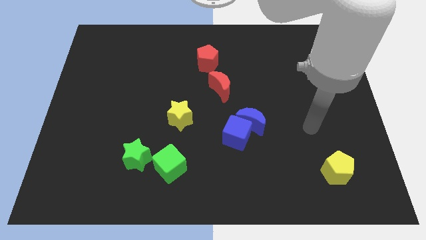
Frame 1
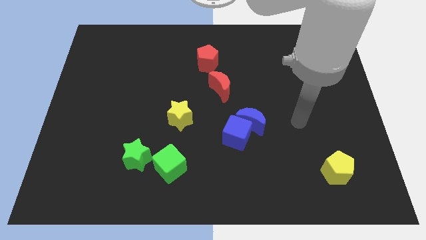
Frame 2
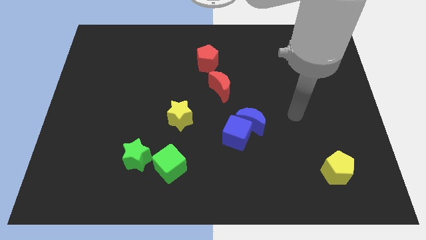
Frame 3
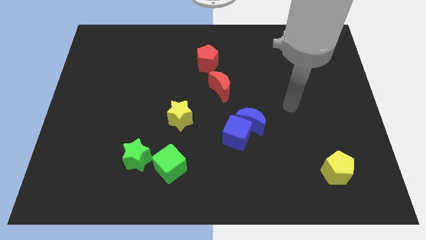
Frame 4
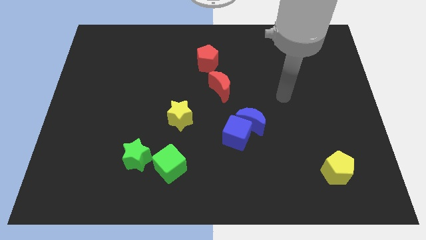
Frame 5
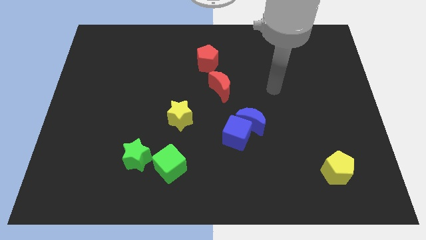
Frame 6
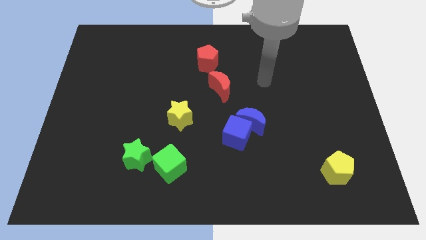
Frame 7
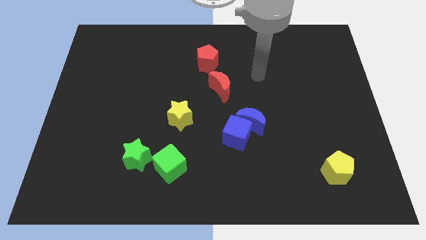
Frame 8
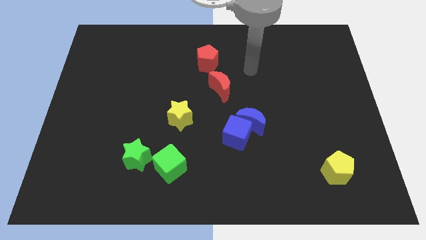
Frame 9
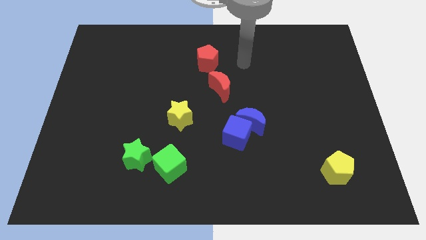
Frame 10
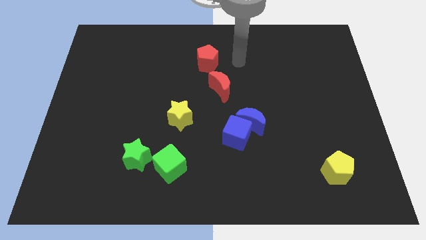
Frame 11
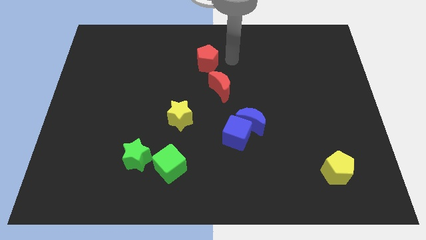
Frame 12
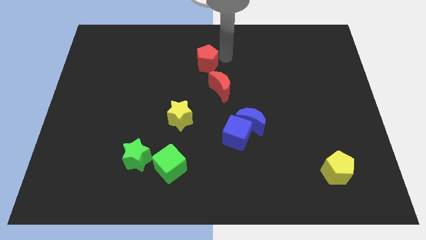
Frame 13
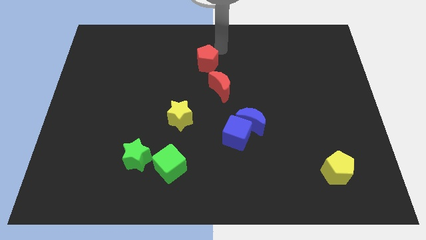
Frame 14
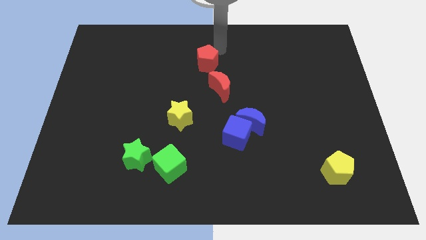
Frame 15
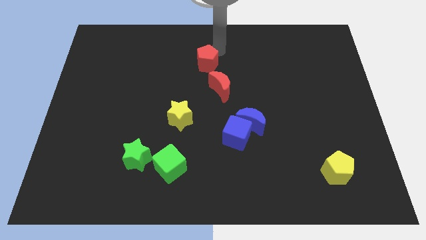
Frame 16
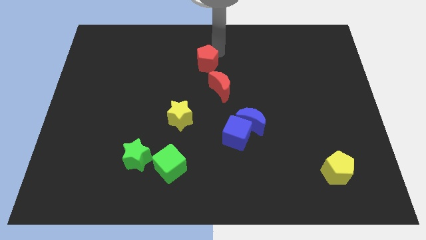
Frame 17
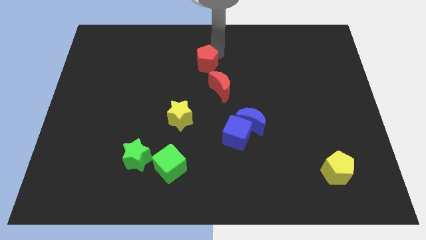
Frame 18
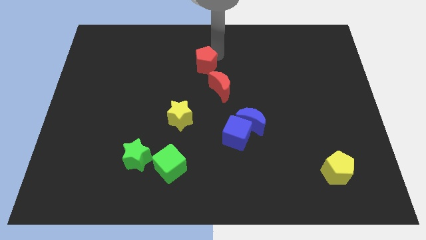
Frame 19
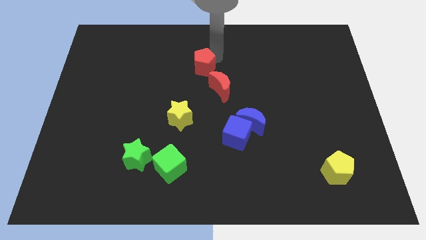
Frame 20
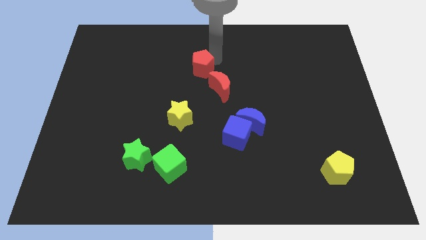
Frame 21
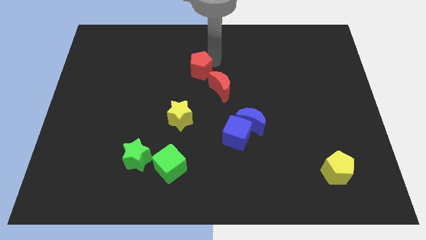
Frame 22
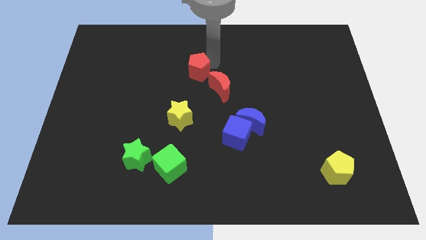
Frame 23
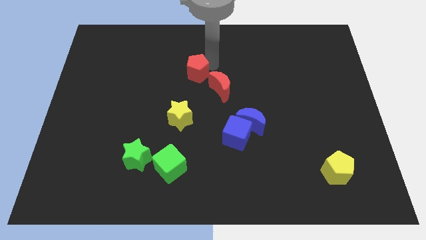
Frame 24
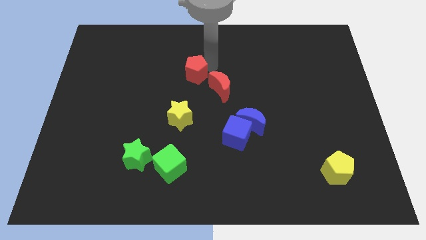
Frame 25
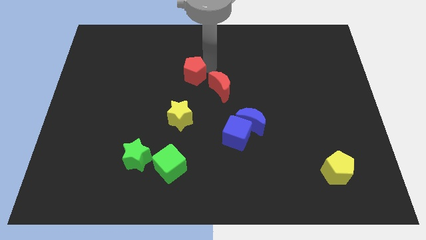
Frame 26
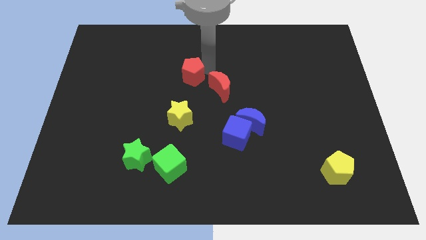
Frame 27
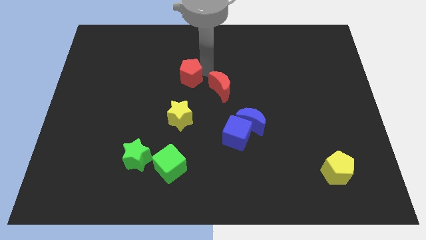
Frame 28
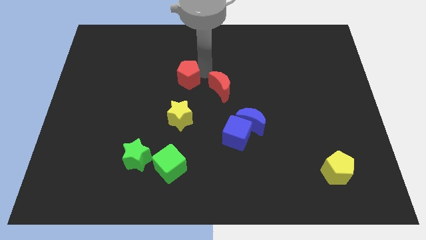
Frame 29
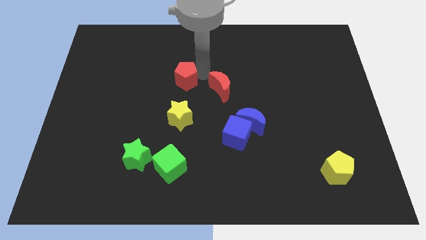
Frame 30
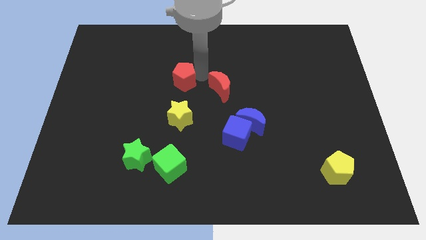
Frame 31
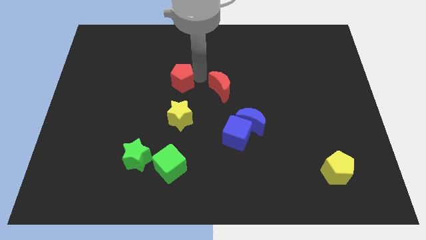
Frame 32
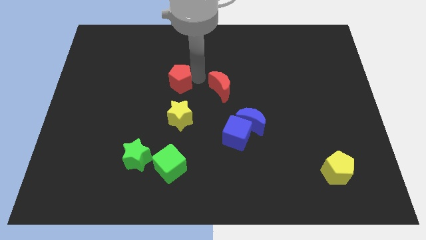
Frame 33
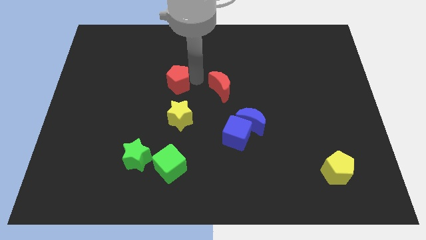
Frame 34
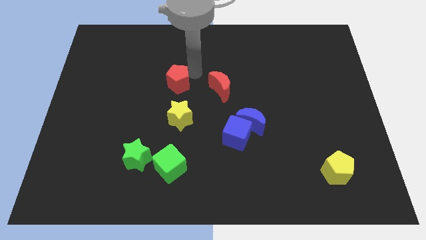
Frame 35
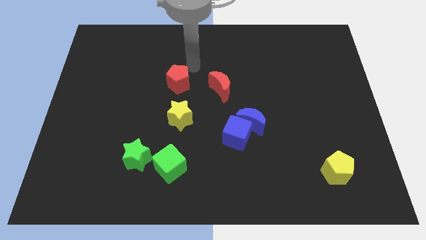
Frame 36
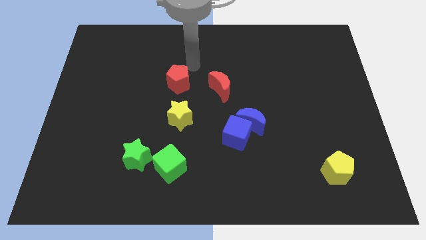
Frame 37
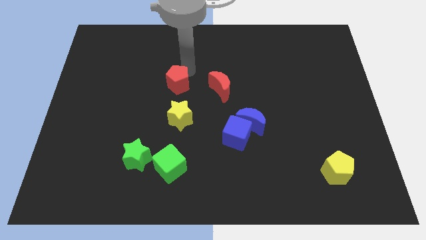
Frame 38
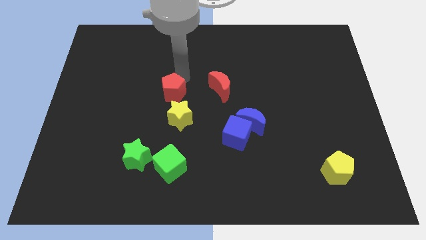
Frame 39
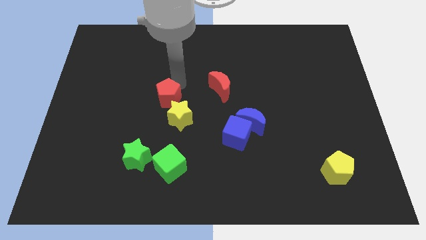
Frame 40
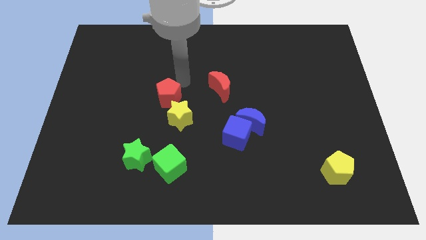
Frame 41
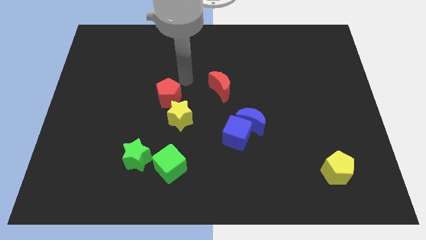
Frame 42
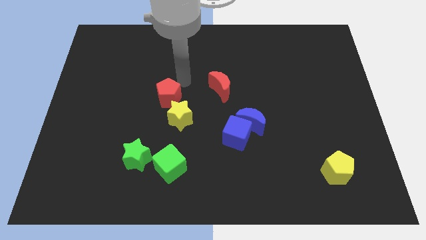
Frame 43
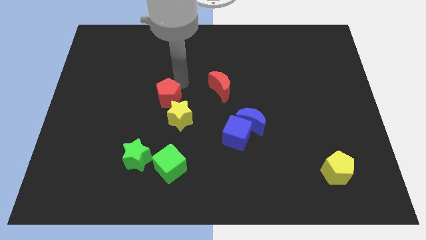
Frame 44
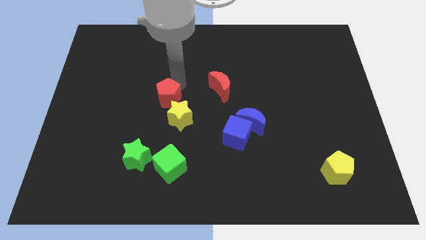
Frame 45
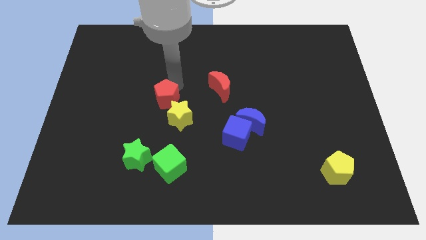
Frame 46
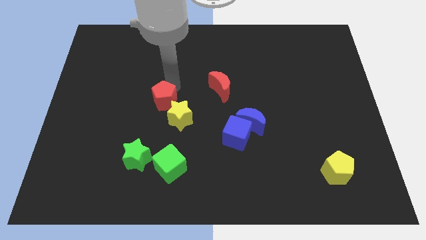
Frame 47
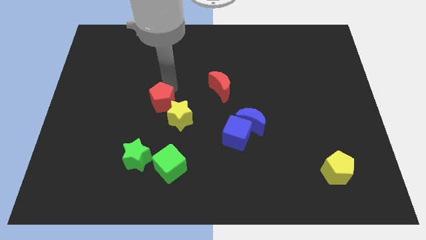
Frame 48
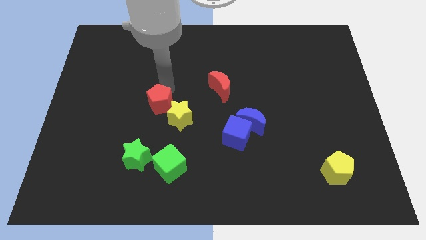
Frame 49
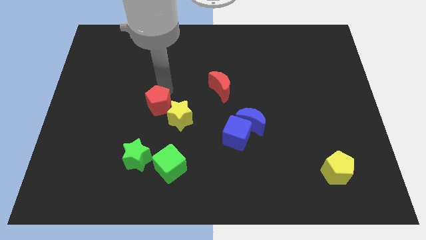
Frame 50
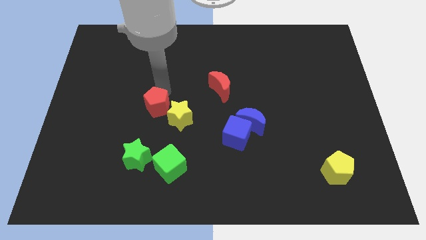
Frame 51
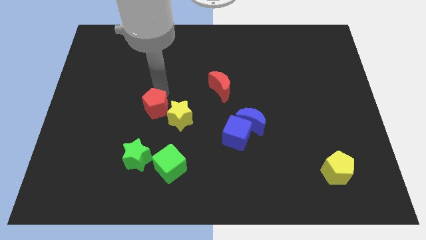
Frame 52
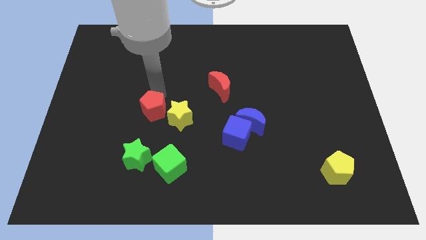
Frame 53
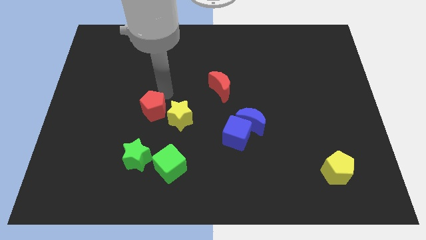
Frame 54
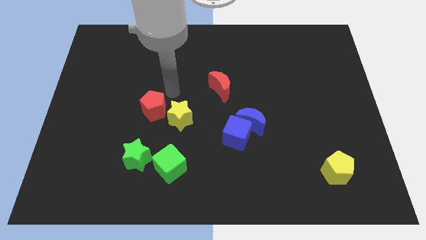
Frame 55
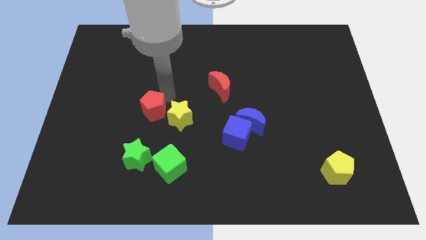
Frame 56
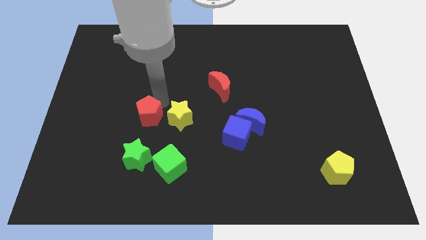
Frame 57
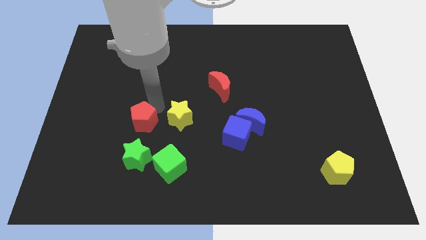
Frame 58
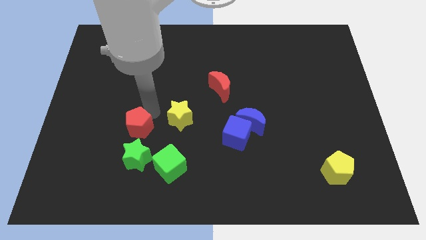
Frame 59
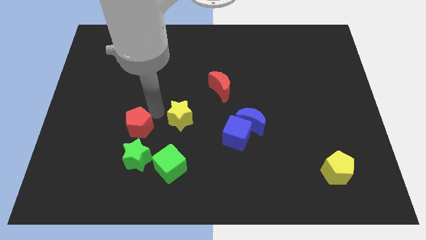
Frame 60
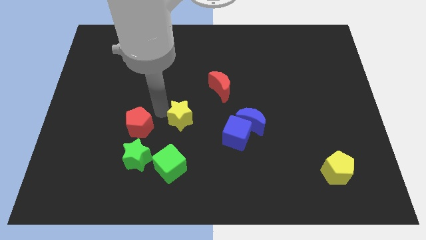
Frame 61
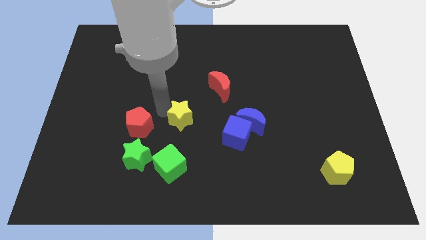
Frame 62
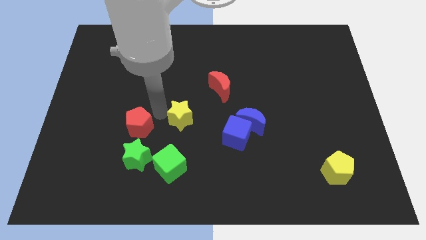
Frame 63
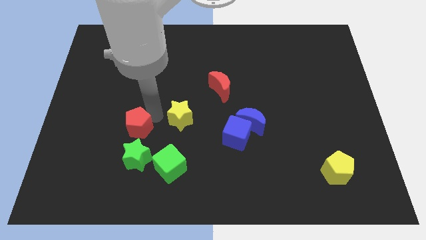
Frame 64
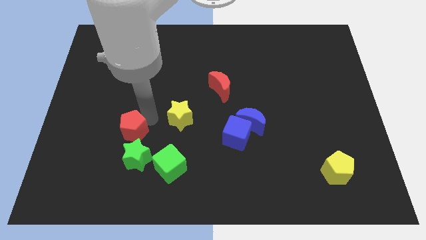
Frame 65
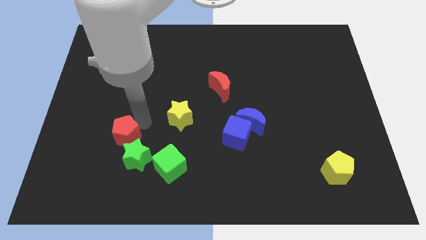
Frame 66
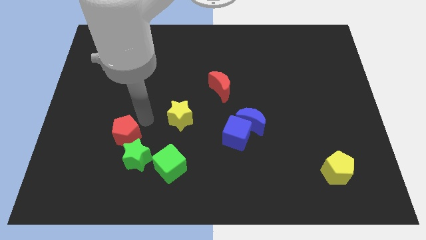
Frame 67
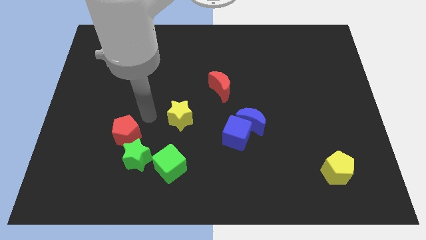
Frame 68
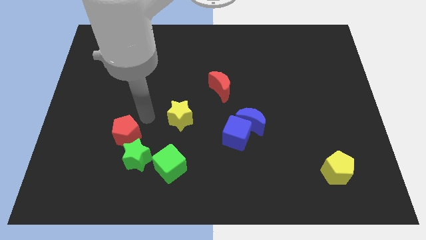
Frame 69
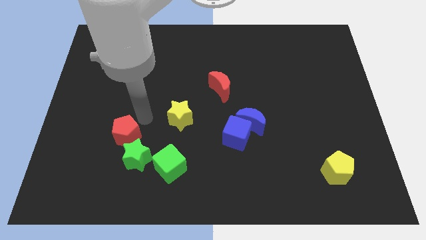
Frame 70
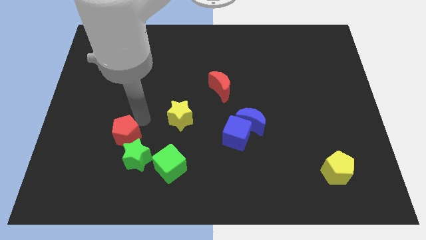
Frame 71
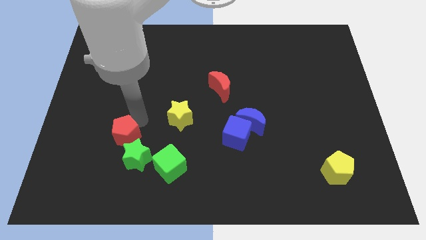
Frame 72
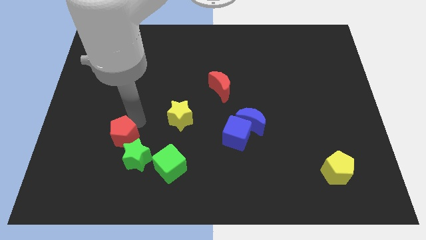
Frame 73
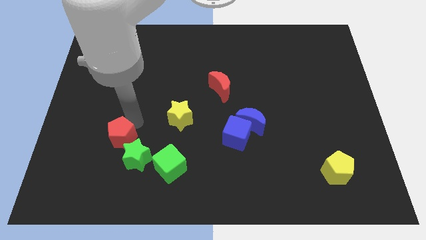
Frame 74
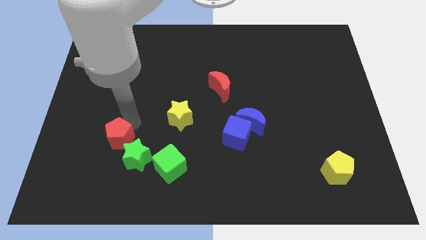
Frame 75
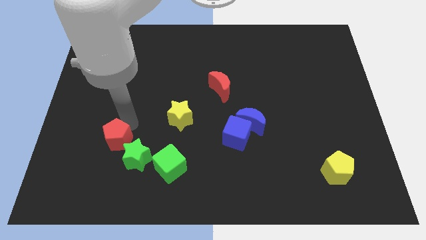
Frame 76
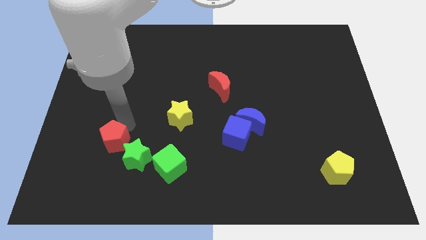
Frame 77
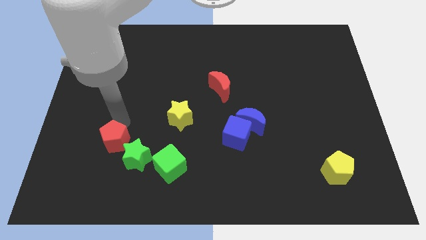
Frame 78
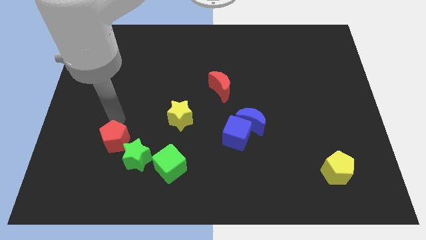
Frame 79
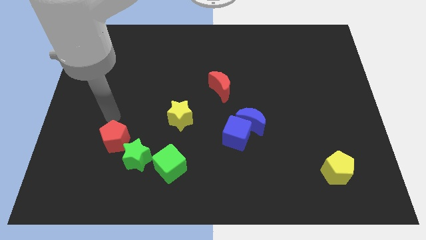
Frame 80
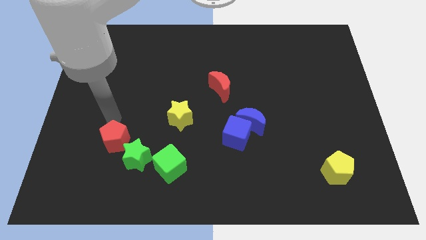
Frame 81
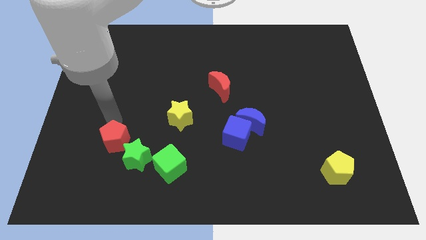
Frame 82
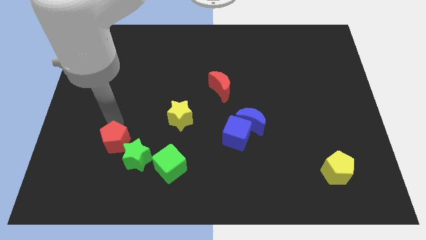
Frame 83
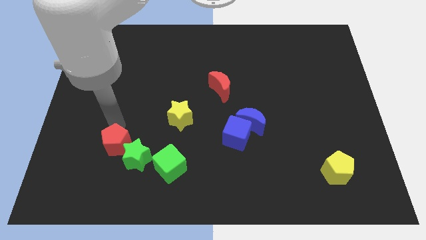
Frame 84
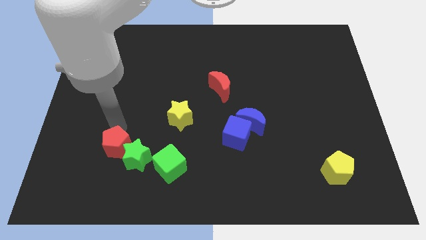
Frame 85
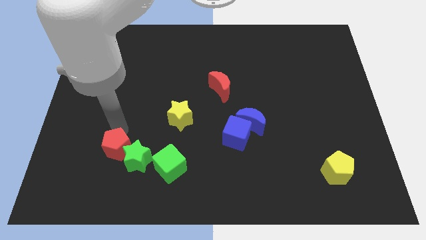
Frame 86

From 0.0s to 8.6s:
move the red pentagon left of the green cube
